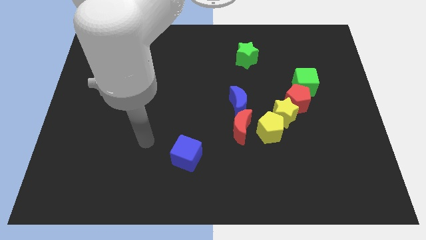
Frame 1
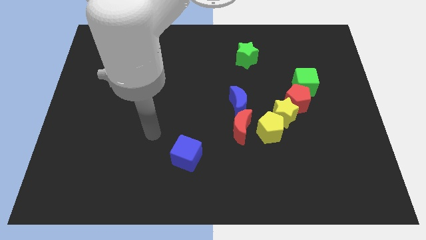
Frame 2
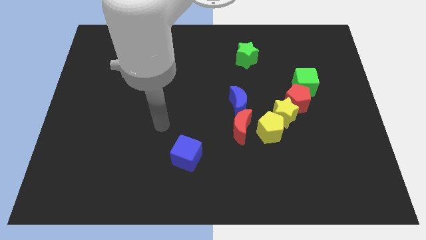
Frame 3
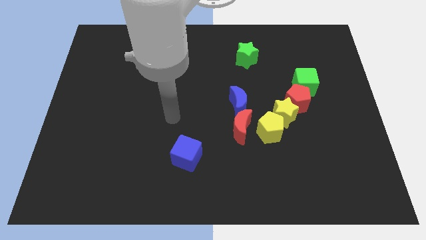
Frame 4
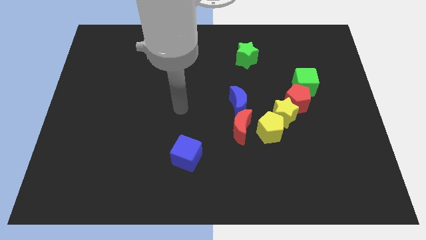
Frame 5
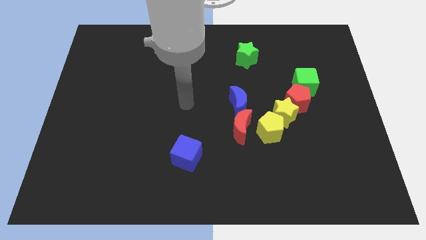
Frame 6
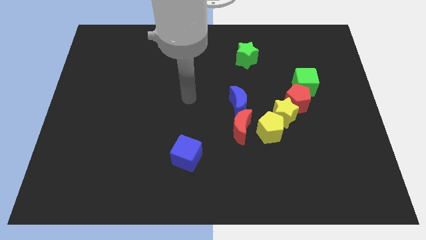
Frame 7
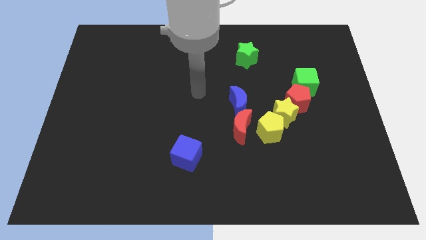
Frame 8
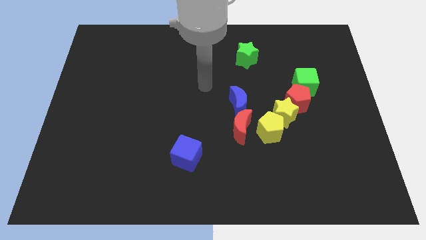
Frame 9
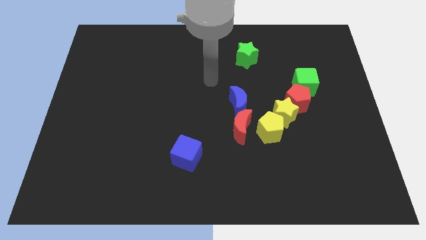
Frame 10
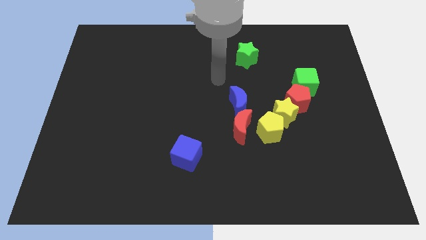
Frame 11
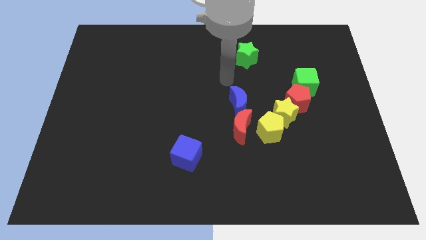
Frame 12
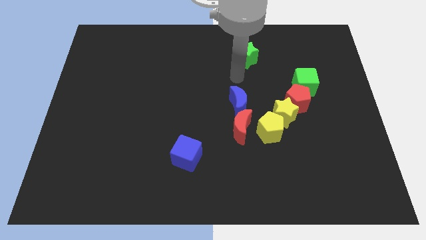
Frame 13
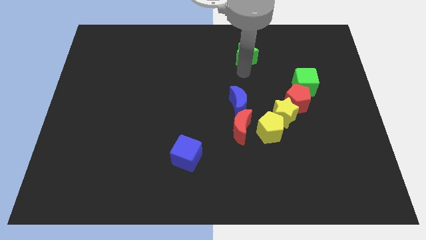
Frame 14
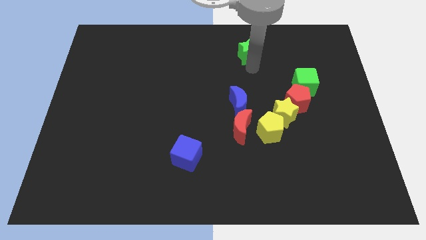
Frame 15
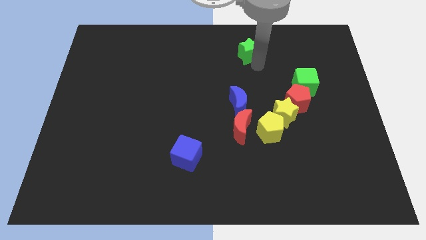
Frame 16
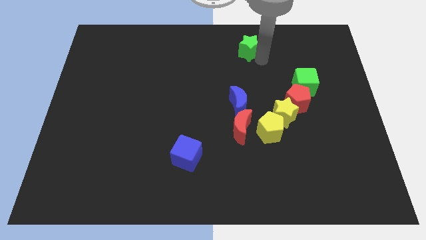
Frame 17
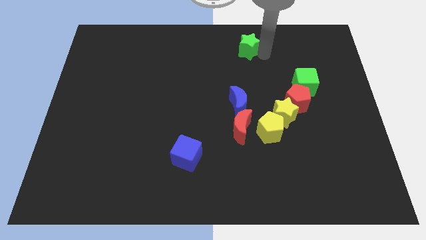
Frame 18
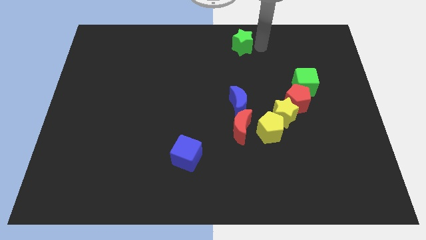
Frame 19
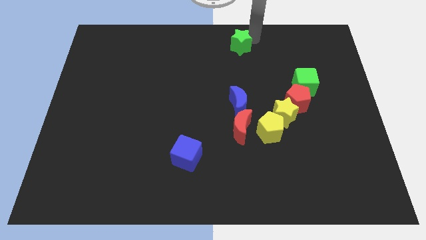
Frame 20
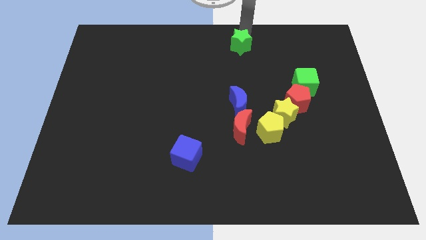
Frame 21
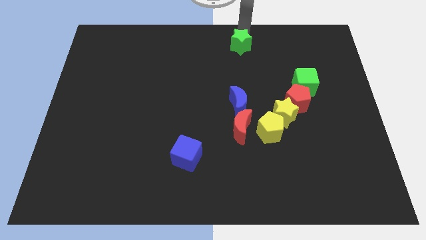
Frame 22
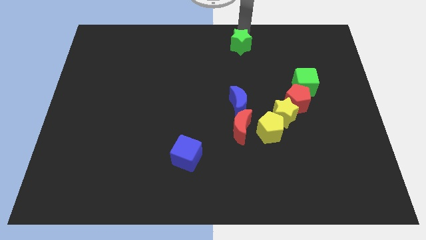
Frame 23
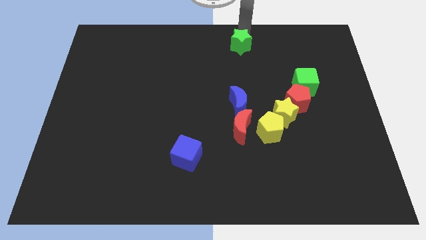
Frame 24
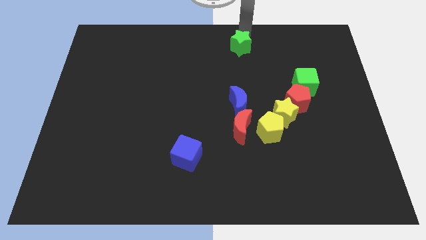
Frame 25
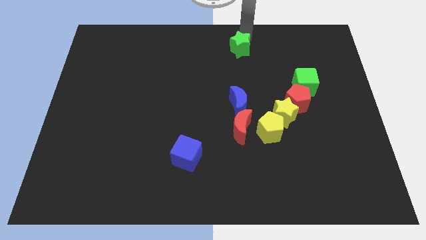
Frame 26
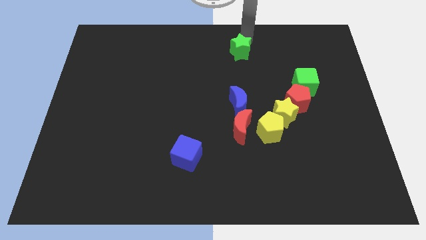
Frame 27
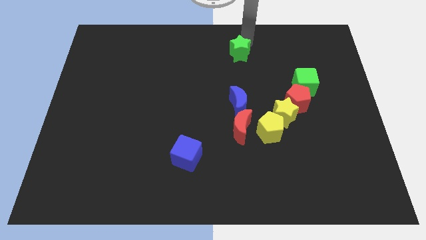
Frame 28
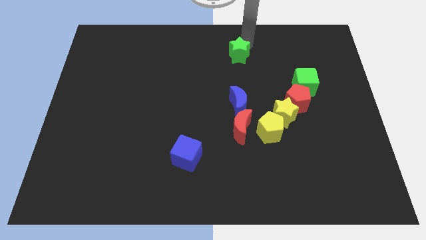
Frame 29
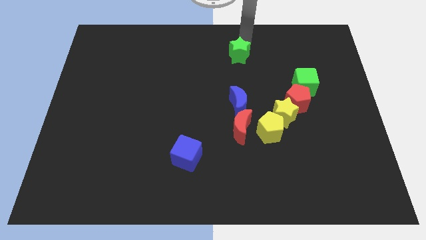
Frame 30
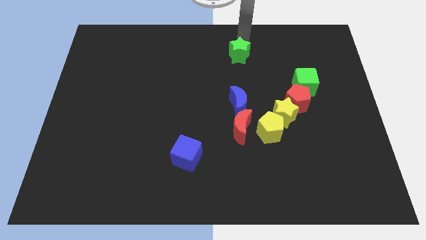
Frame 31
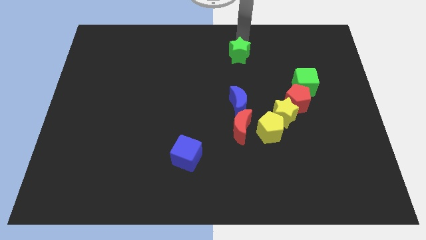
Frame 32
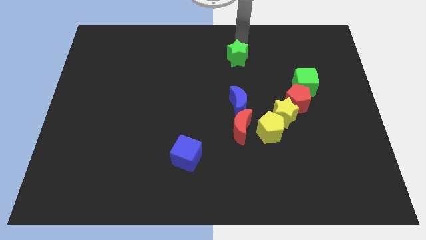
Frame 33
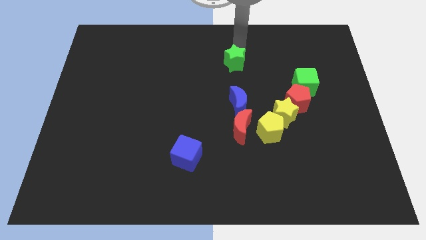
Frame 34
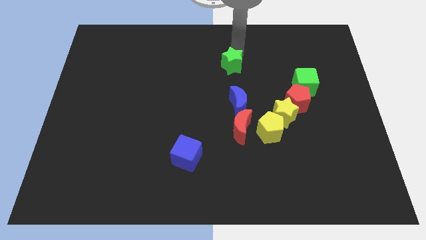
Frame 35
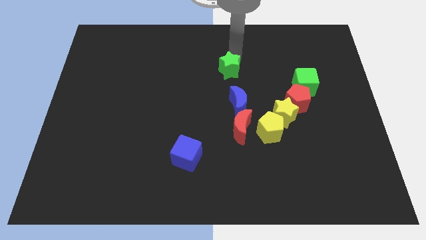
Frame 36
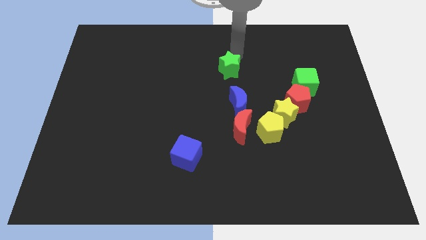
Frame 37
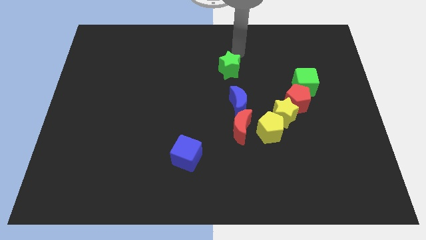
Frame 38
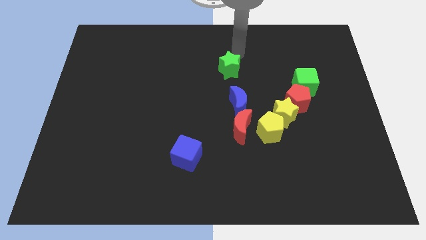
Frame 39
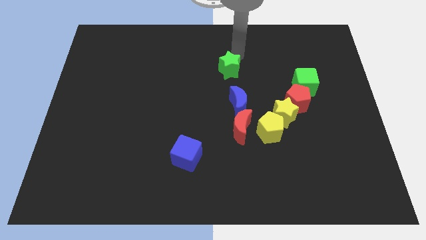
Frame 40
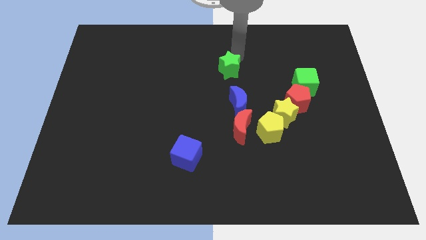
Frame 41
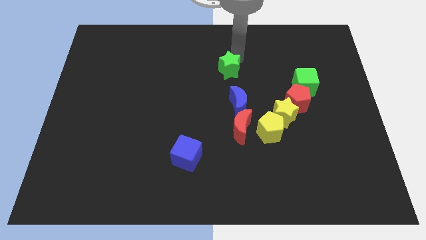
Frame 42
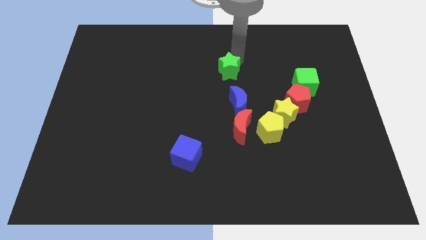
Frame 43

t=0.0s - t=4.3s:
push the green star a little down and then left

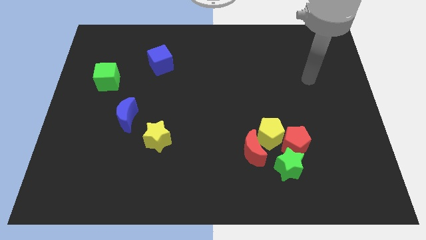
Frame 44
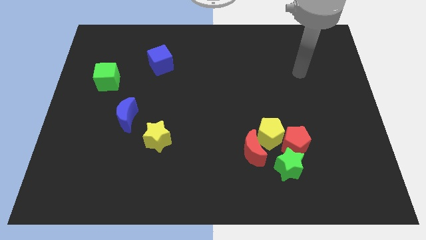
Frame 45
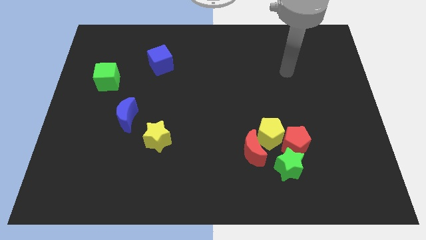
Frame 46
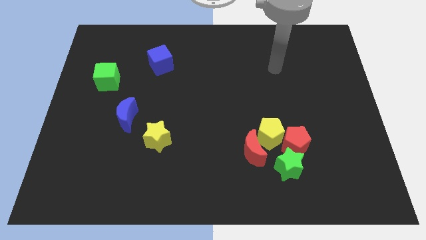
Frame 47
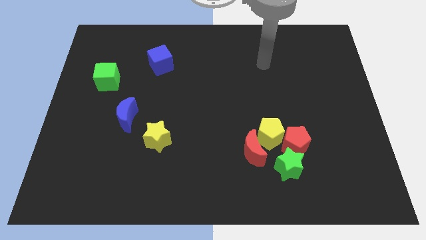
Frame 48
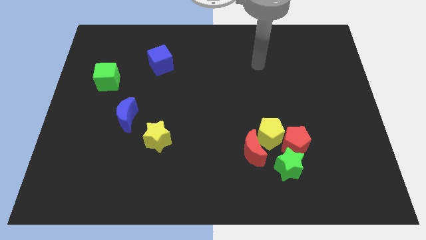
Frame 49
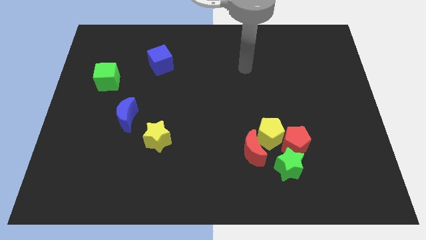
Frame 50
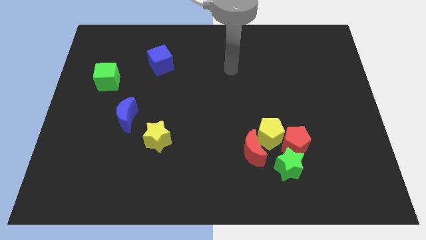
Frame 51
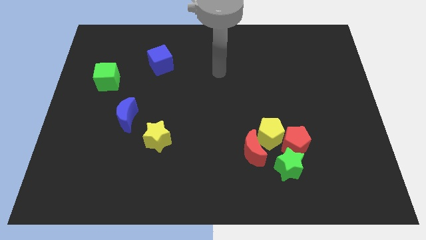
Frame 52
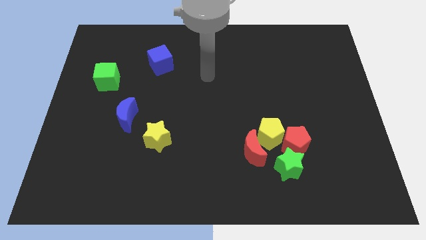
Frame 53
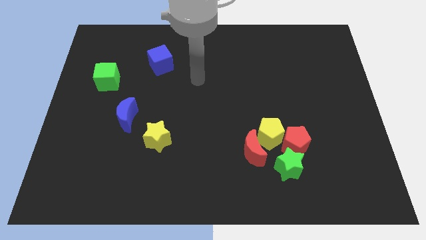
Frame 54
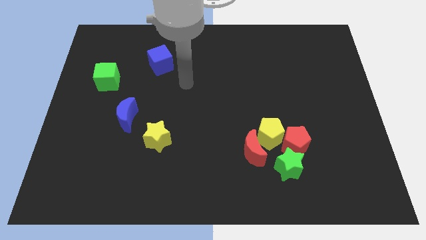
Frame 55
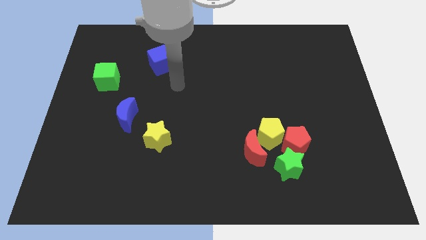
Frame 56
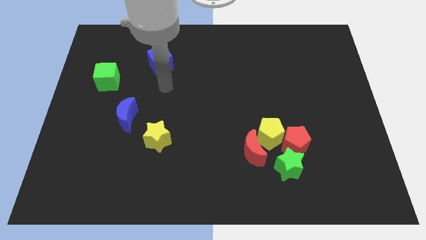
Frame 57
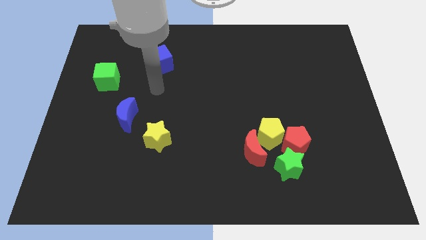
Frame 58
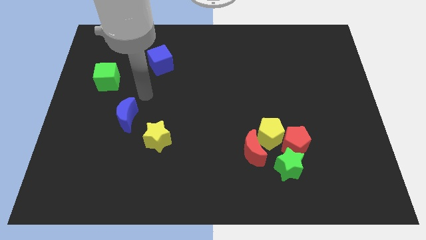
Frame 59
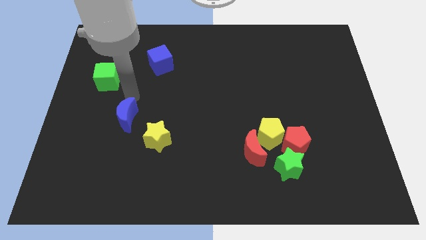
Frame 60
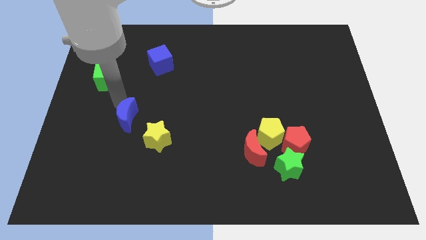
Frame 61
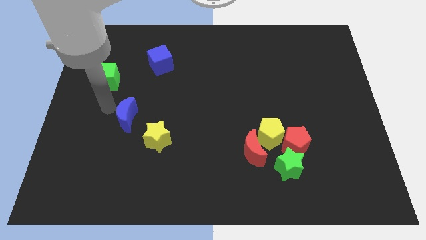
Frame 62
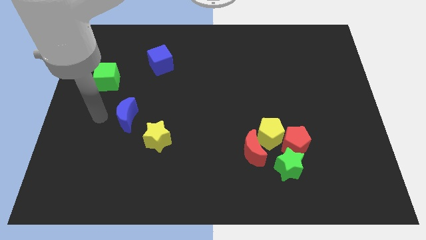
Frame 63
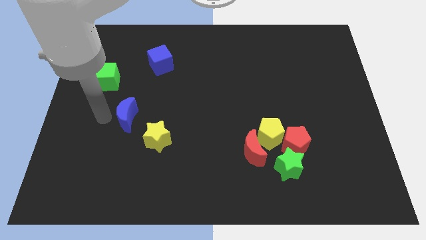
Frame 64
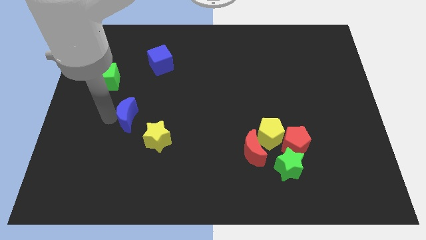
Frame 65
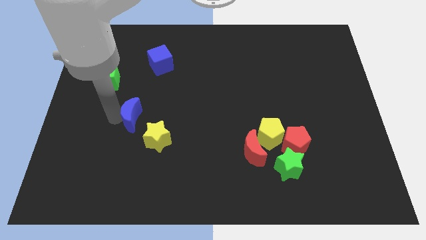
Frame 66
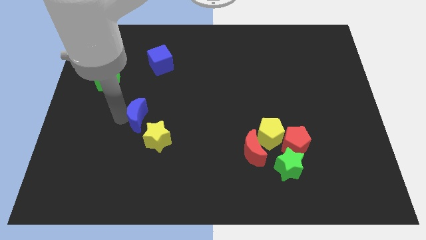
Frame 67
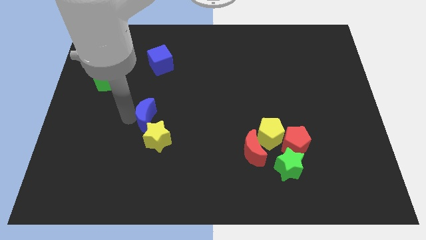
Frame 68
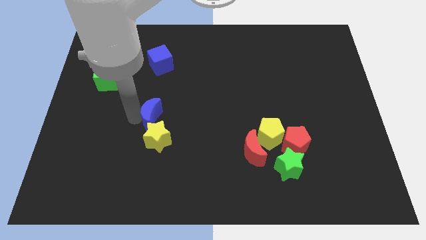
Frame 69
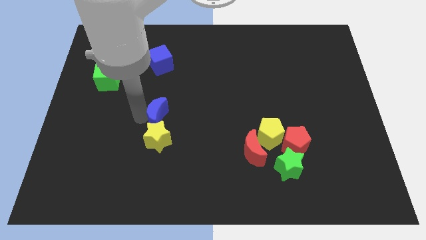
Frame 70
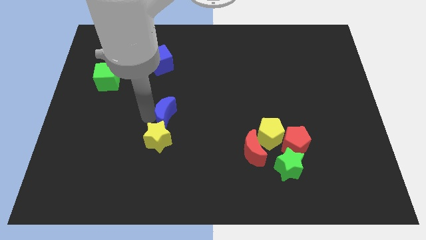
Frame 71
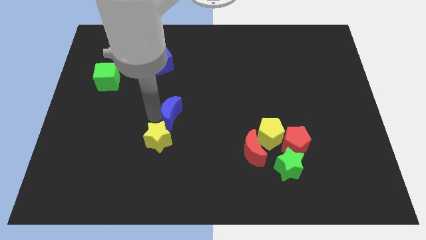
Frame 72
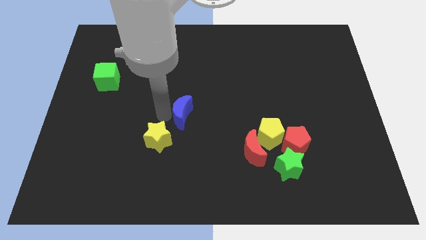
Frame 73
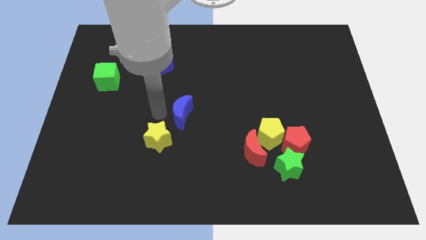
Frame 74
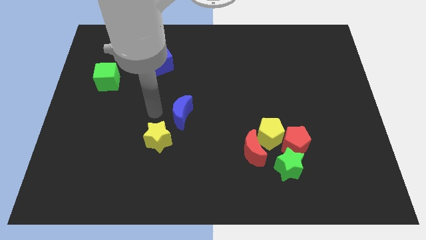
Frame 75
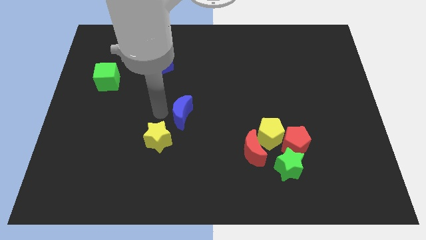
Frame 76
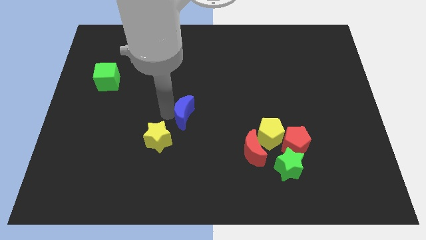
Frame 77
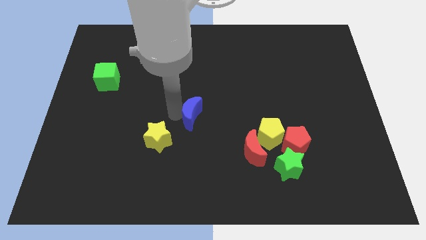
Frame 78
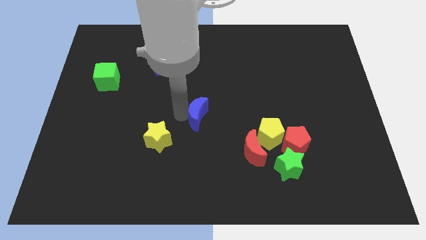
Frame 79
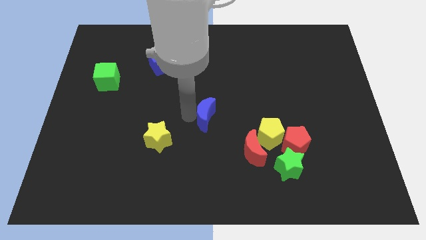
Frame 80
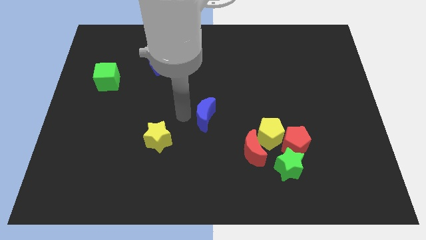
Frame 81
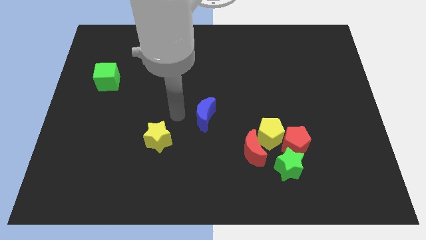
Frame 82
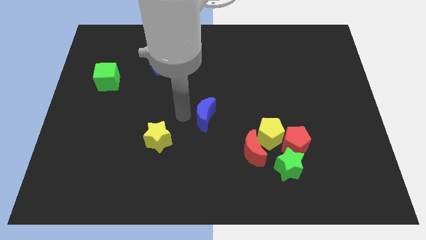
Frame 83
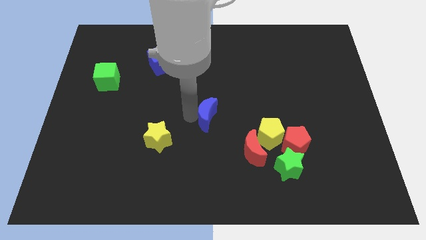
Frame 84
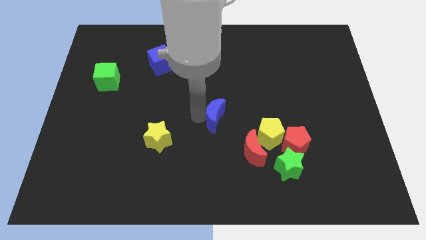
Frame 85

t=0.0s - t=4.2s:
push the blue moon to the right
